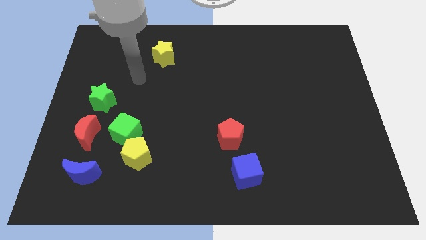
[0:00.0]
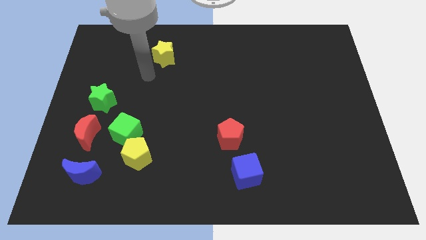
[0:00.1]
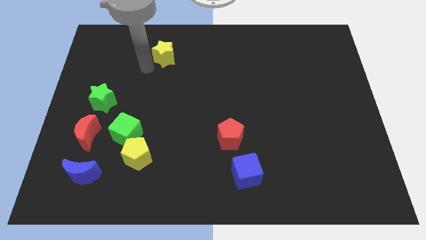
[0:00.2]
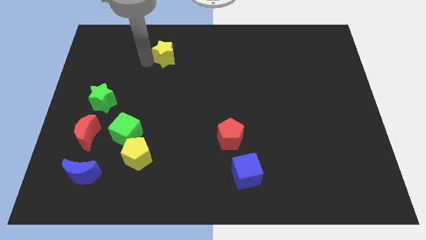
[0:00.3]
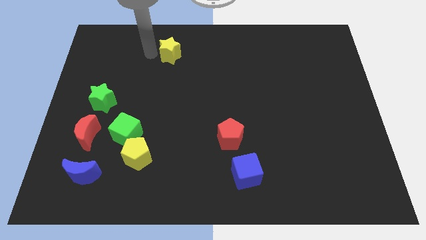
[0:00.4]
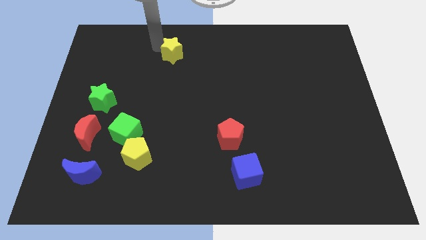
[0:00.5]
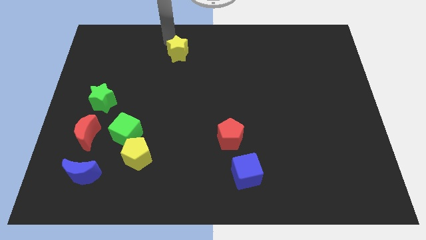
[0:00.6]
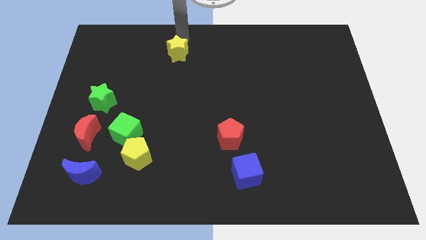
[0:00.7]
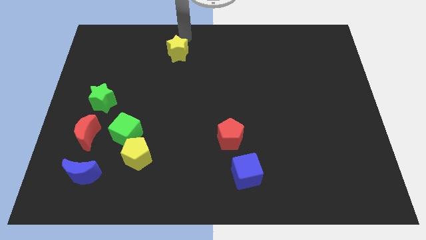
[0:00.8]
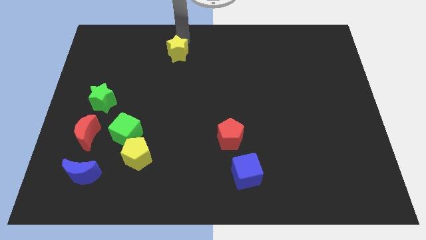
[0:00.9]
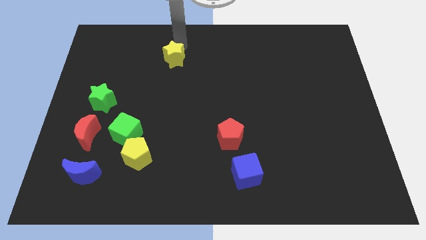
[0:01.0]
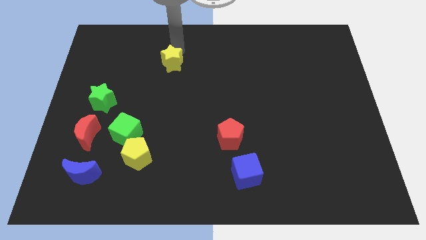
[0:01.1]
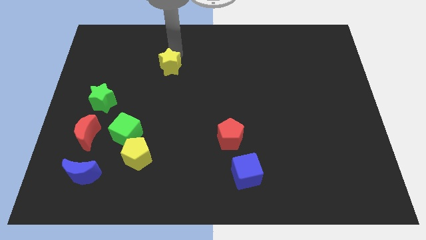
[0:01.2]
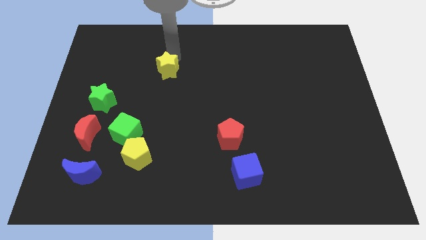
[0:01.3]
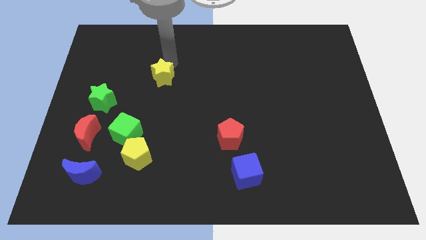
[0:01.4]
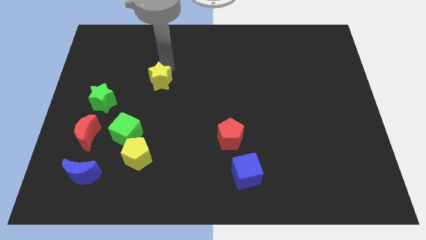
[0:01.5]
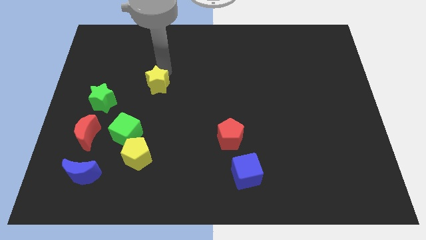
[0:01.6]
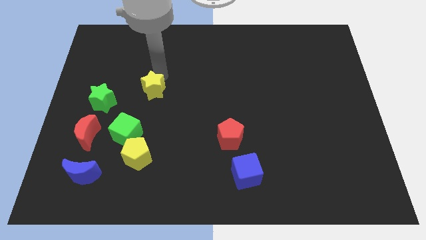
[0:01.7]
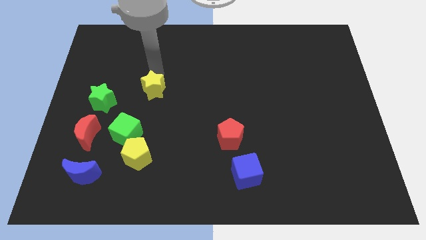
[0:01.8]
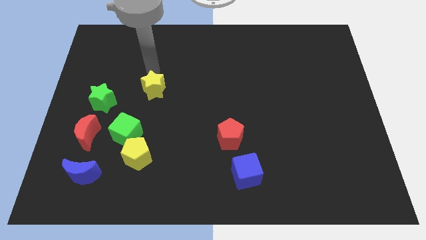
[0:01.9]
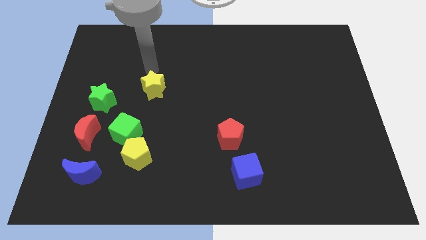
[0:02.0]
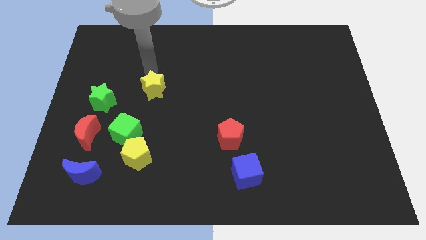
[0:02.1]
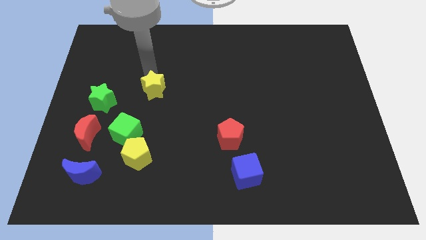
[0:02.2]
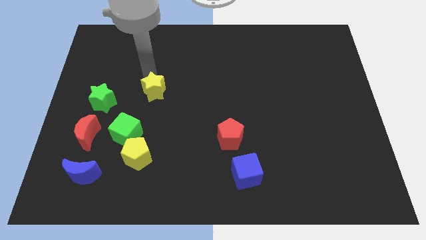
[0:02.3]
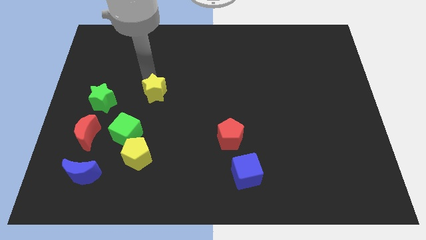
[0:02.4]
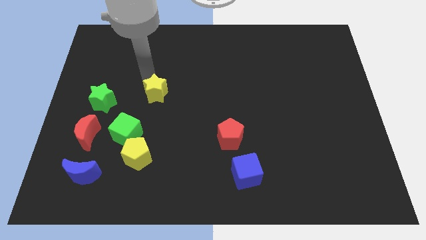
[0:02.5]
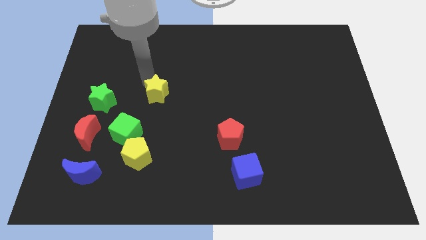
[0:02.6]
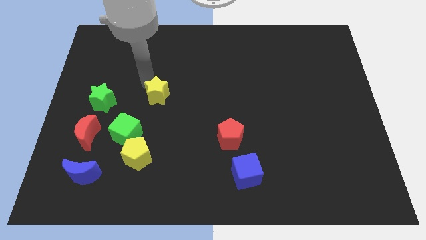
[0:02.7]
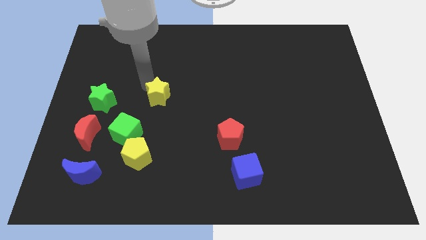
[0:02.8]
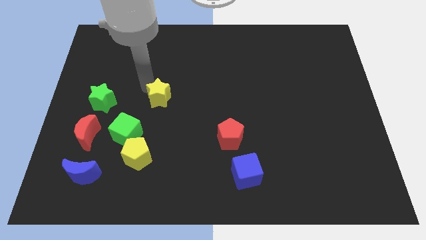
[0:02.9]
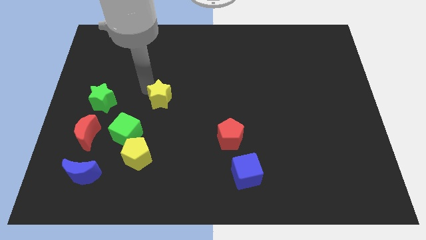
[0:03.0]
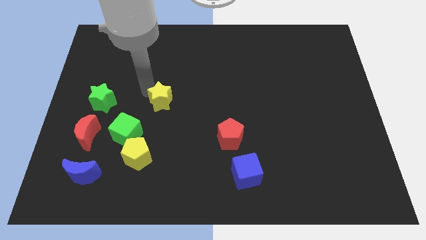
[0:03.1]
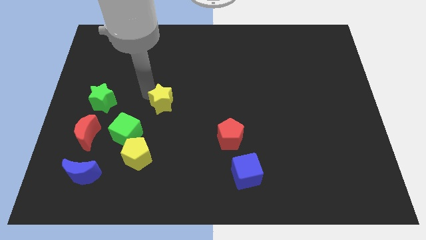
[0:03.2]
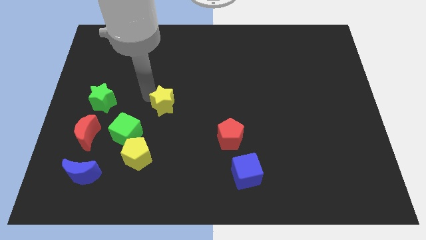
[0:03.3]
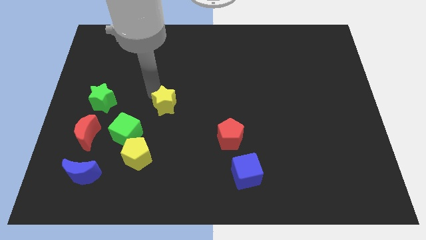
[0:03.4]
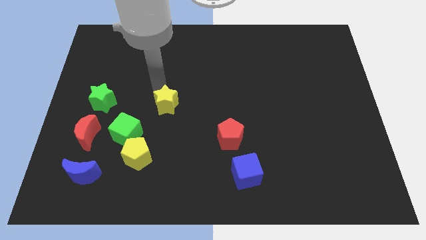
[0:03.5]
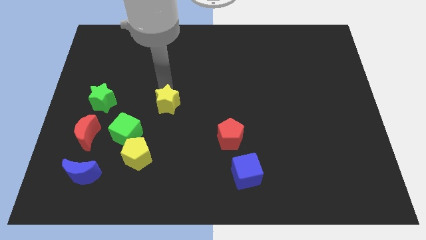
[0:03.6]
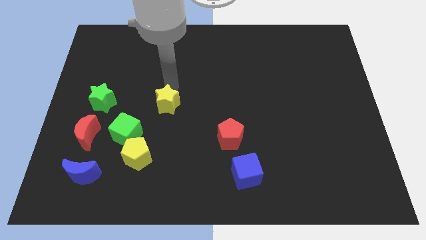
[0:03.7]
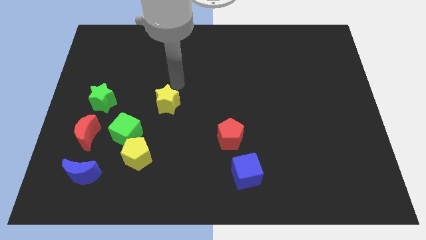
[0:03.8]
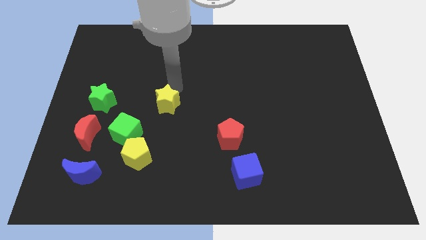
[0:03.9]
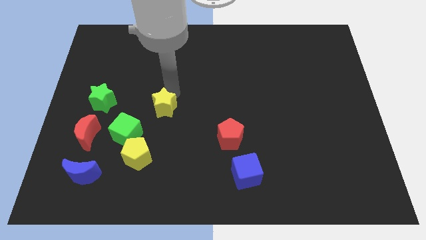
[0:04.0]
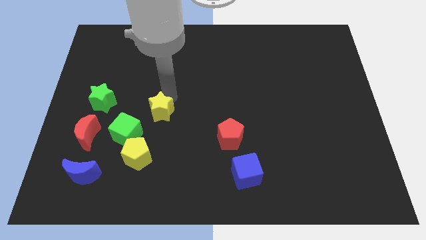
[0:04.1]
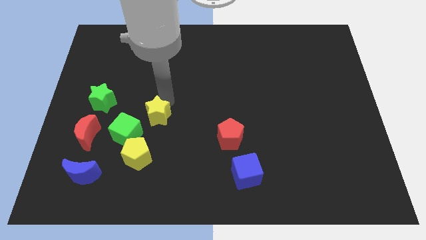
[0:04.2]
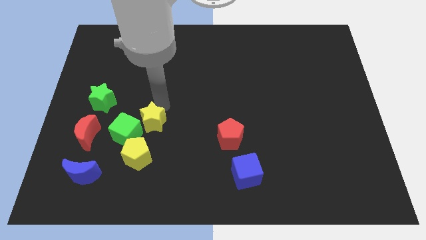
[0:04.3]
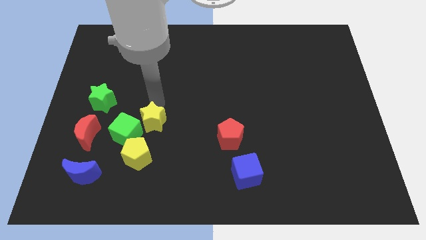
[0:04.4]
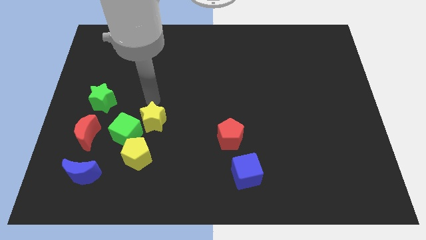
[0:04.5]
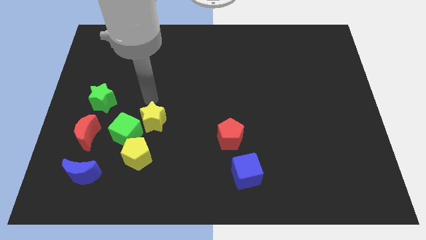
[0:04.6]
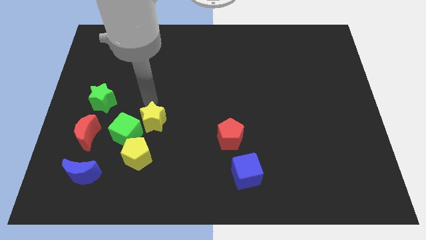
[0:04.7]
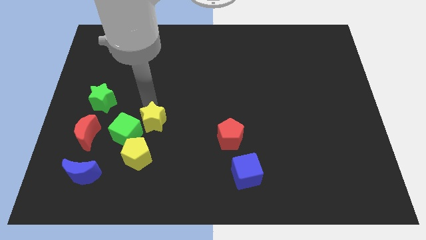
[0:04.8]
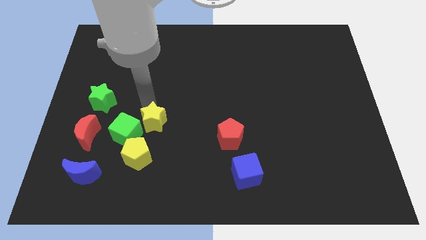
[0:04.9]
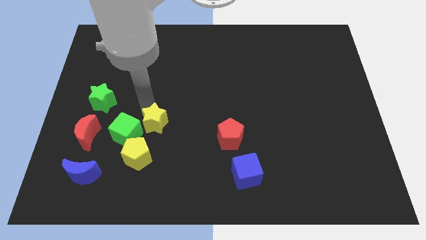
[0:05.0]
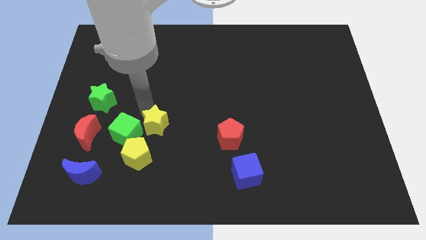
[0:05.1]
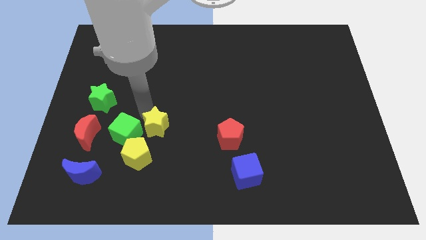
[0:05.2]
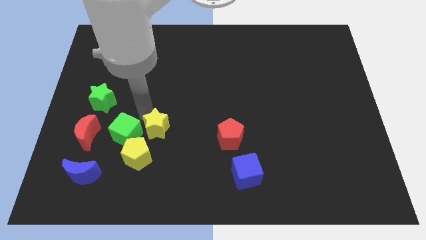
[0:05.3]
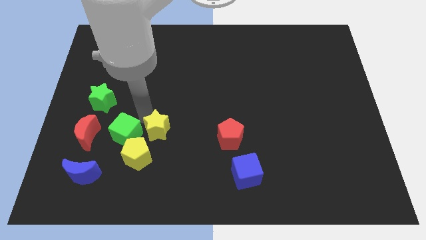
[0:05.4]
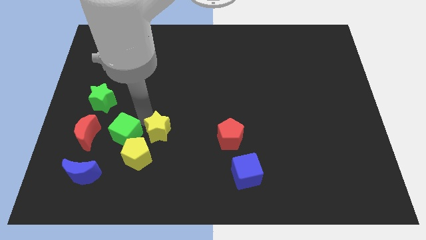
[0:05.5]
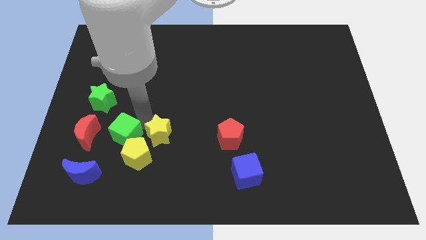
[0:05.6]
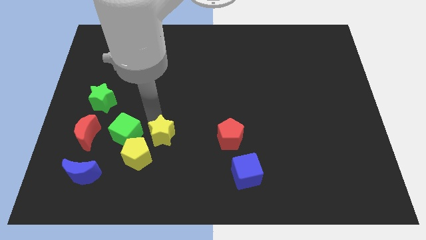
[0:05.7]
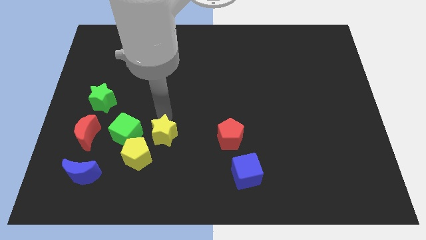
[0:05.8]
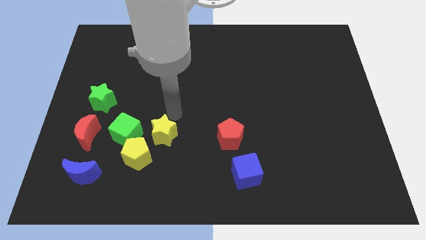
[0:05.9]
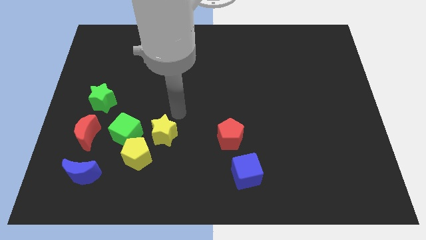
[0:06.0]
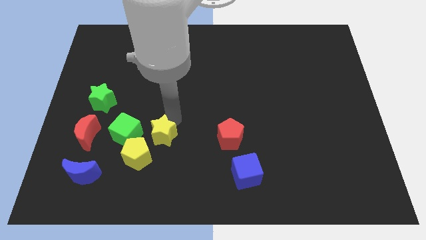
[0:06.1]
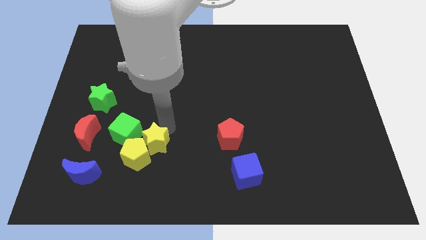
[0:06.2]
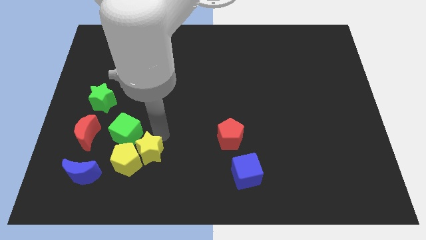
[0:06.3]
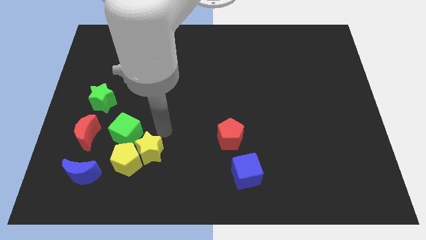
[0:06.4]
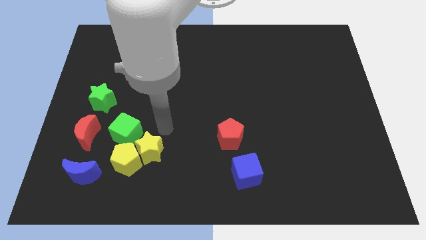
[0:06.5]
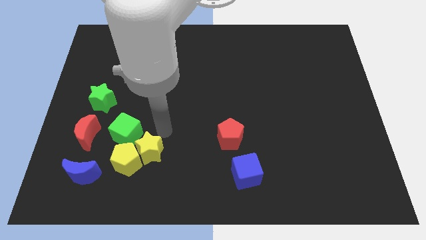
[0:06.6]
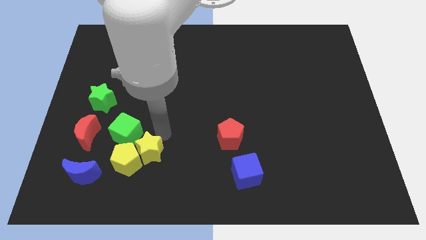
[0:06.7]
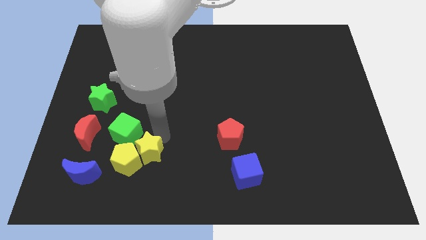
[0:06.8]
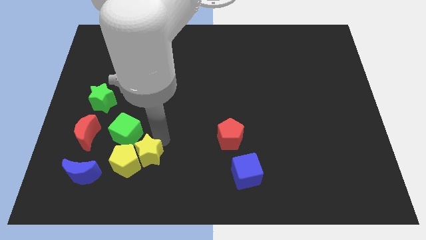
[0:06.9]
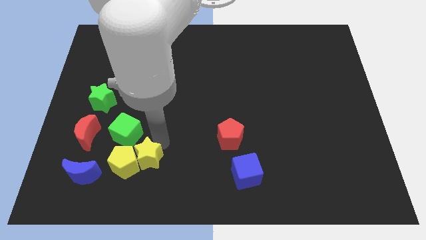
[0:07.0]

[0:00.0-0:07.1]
put the yellow star just right of the blue moon
